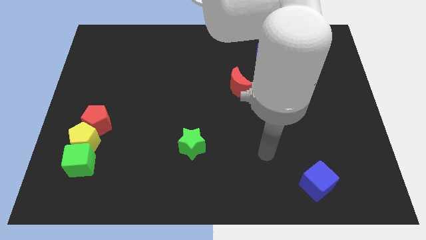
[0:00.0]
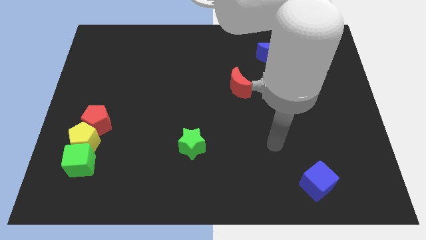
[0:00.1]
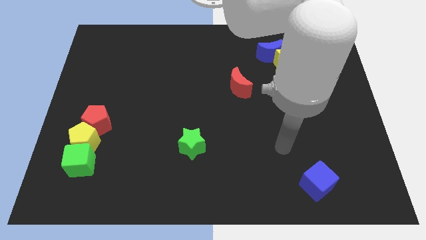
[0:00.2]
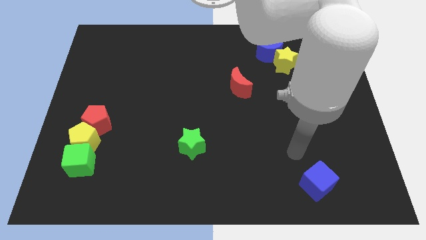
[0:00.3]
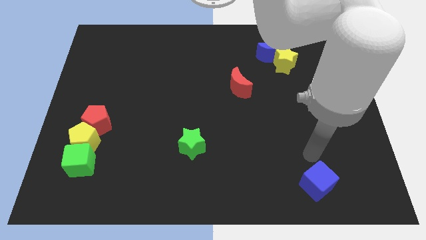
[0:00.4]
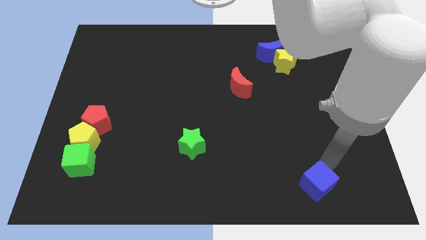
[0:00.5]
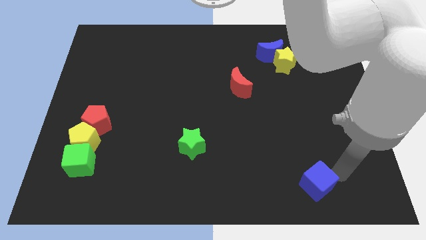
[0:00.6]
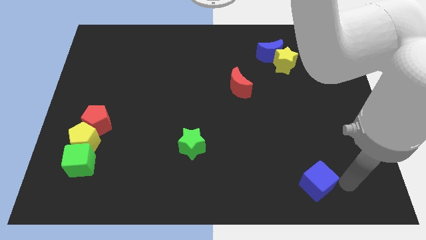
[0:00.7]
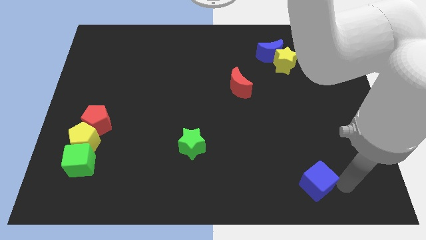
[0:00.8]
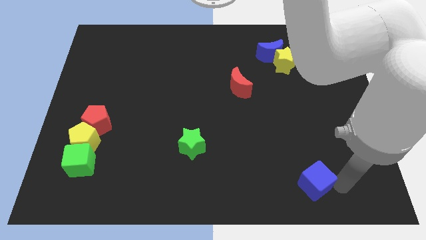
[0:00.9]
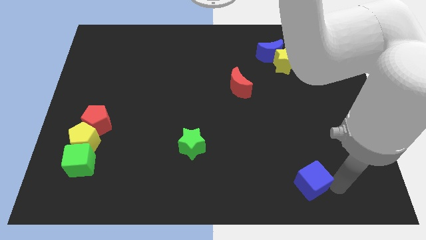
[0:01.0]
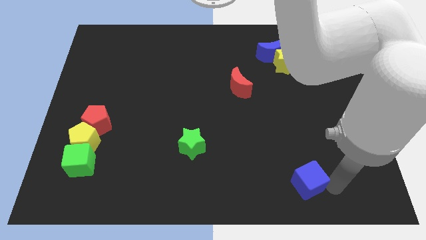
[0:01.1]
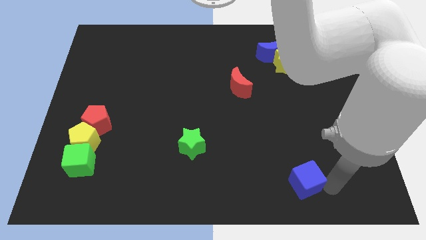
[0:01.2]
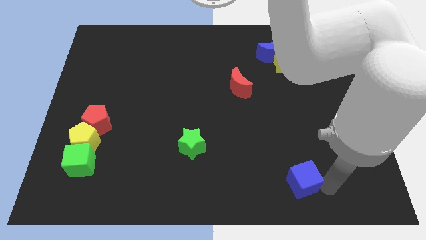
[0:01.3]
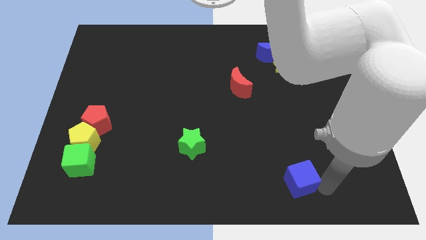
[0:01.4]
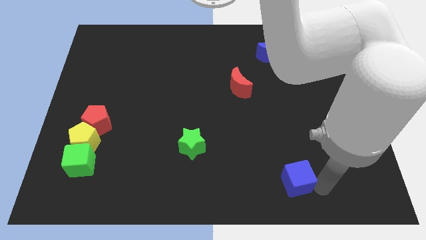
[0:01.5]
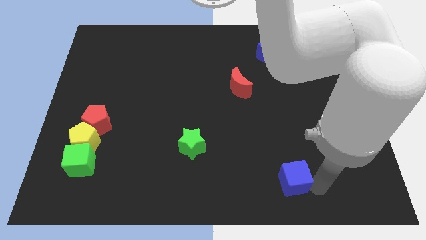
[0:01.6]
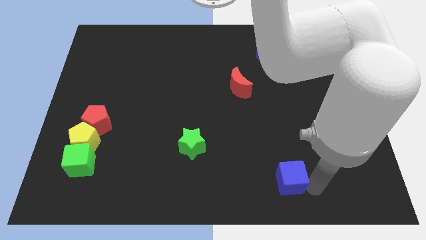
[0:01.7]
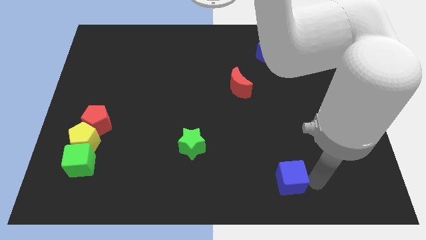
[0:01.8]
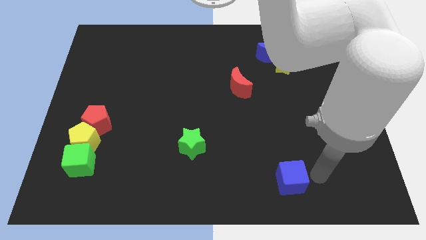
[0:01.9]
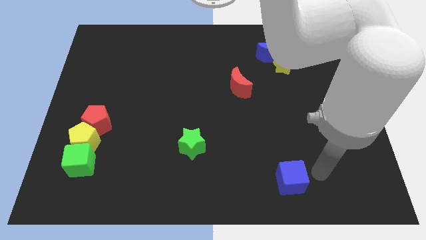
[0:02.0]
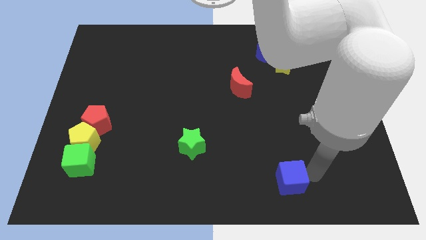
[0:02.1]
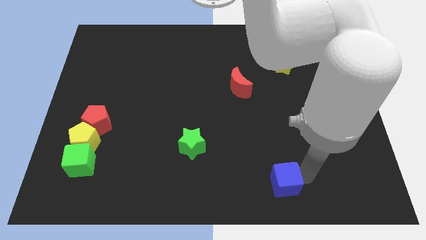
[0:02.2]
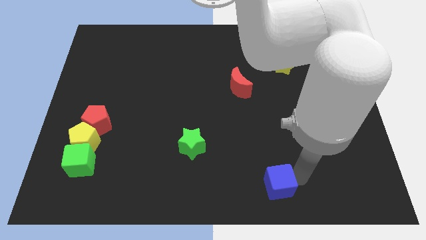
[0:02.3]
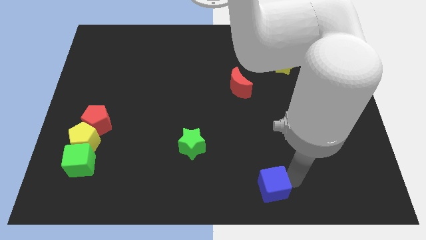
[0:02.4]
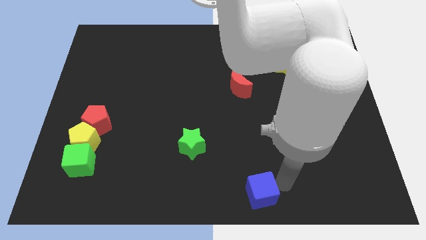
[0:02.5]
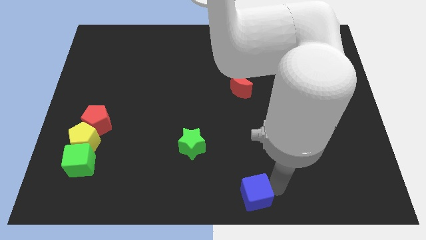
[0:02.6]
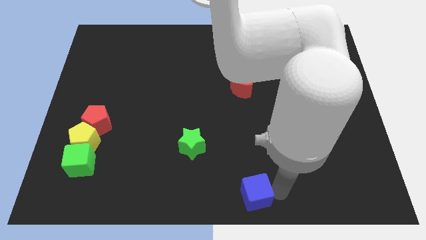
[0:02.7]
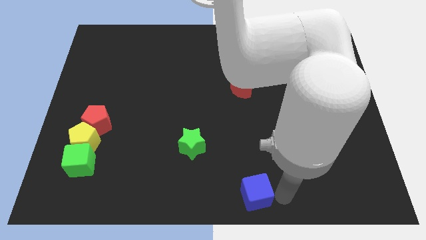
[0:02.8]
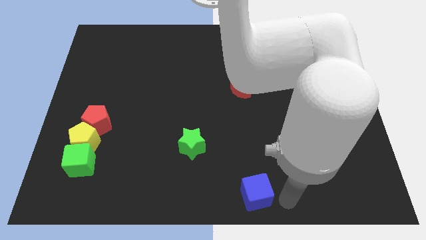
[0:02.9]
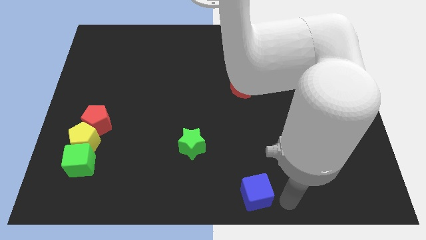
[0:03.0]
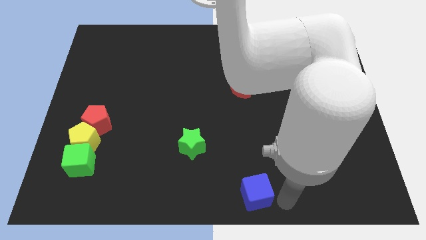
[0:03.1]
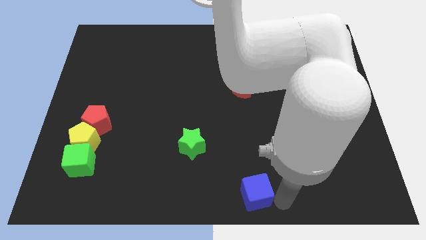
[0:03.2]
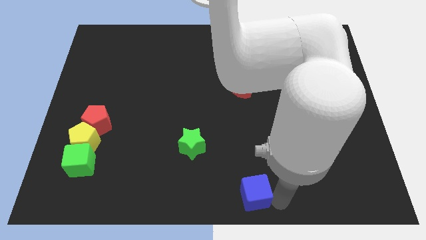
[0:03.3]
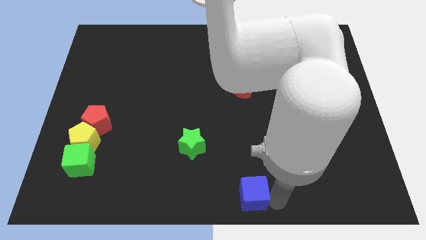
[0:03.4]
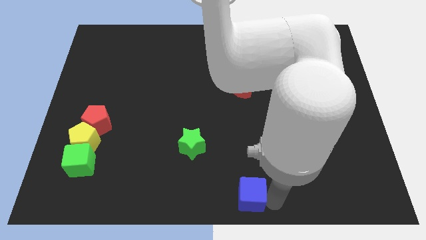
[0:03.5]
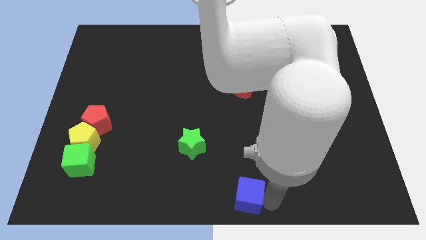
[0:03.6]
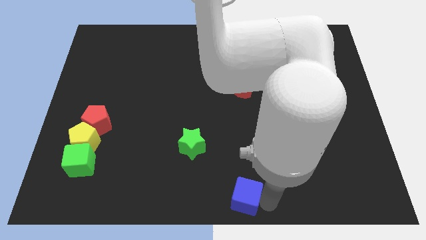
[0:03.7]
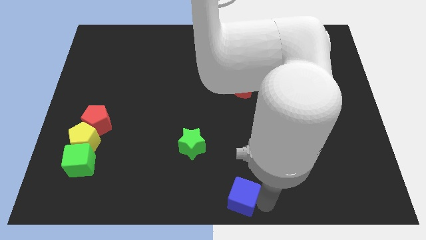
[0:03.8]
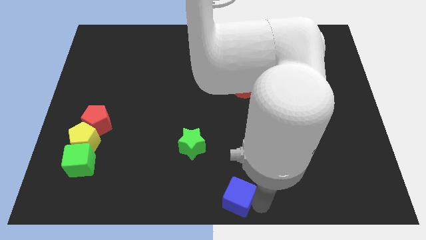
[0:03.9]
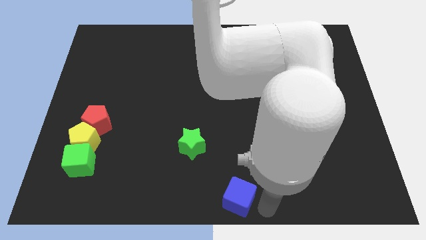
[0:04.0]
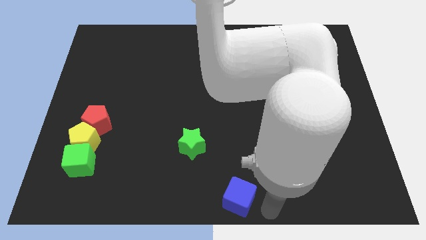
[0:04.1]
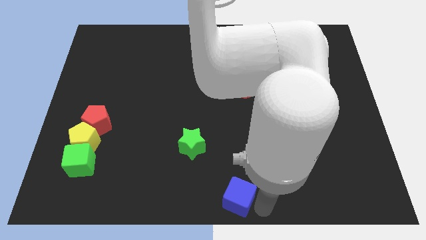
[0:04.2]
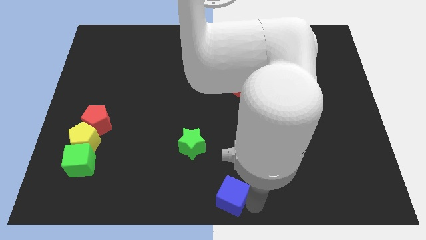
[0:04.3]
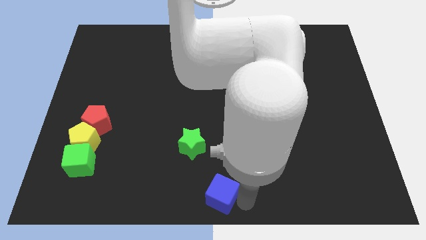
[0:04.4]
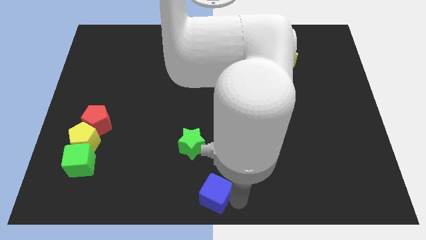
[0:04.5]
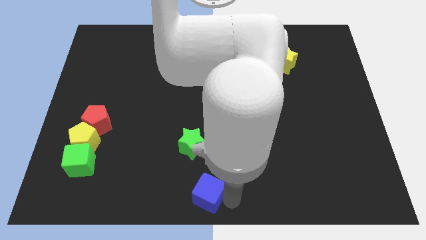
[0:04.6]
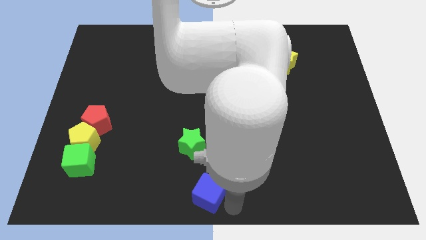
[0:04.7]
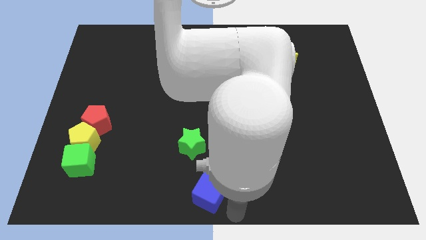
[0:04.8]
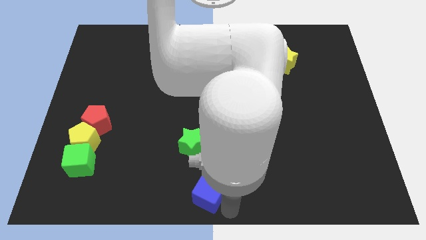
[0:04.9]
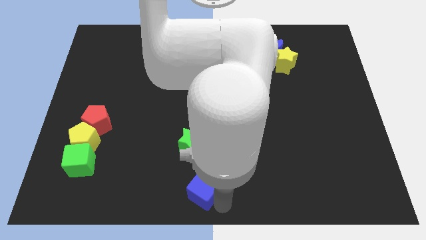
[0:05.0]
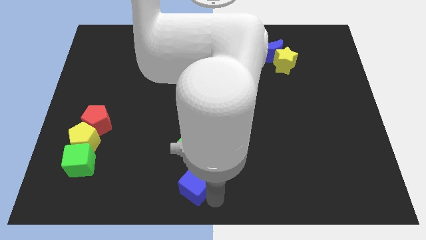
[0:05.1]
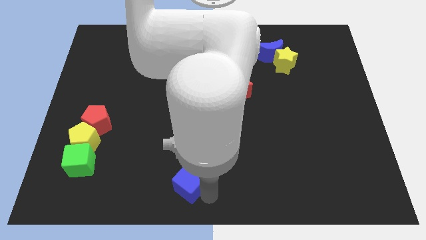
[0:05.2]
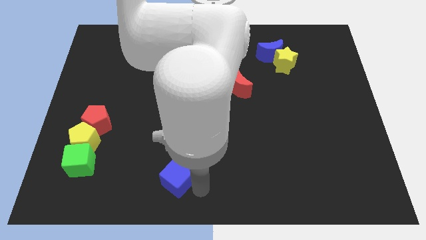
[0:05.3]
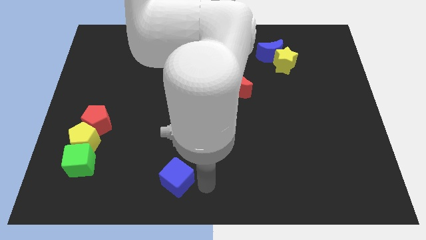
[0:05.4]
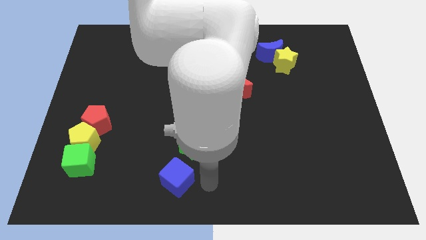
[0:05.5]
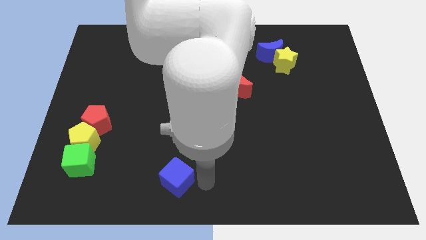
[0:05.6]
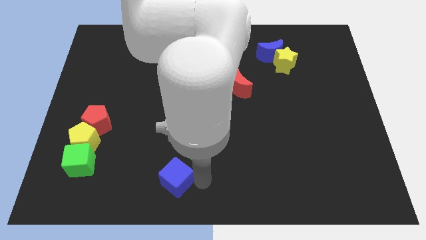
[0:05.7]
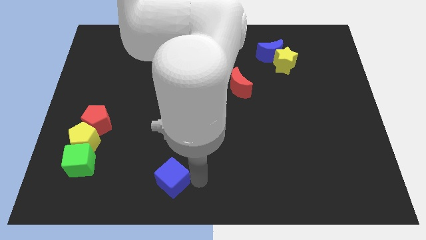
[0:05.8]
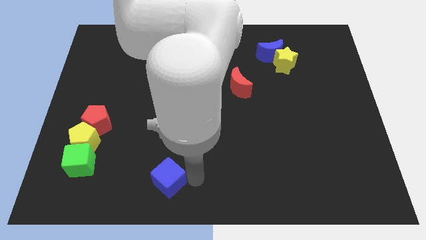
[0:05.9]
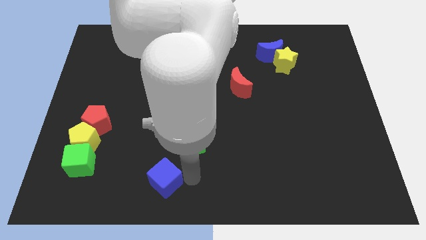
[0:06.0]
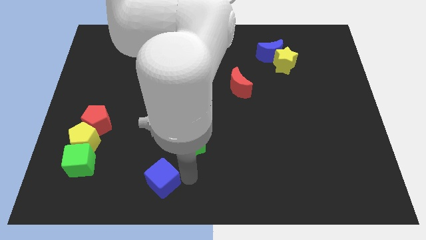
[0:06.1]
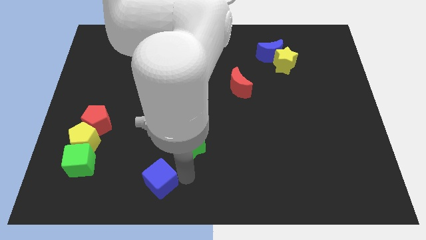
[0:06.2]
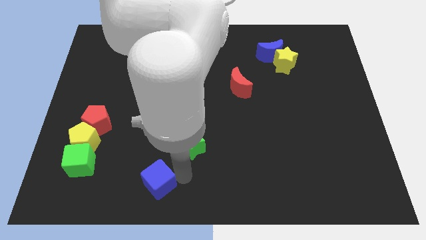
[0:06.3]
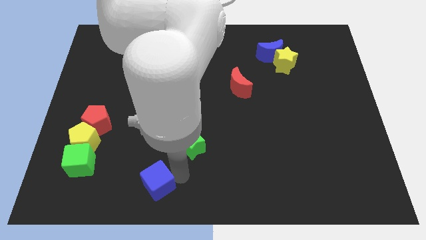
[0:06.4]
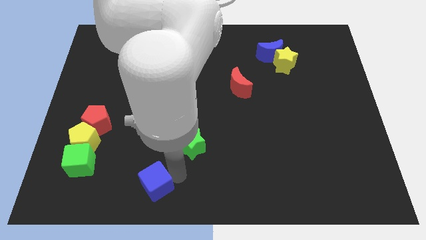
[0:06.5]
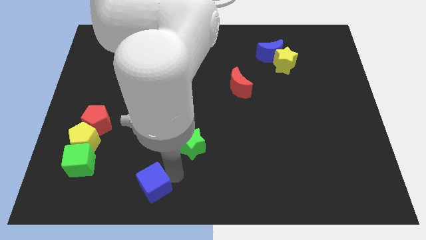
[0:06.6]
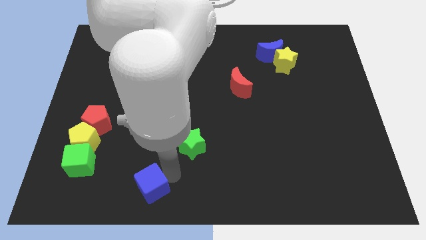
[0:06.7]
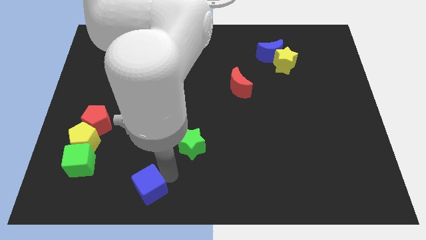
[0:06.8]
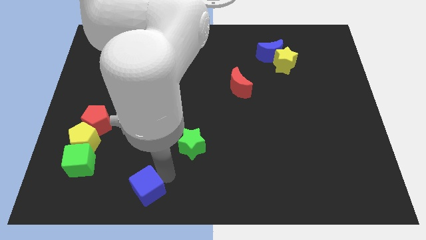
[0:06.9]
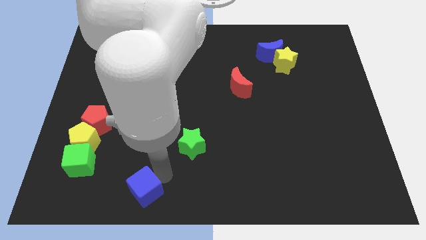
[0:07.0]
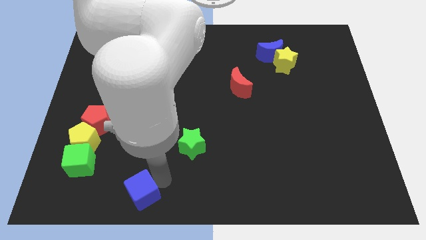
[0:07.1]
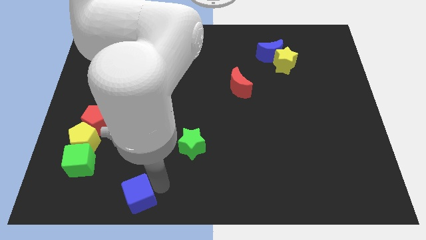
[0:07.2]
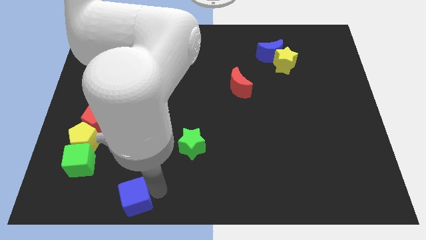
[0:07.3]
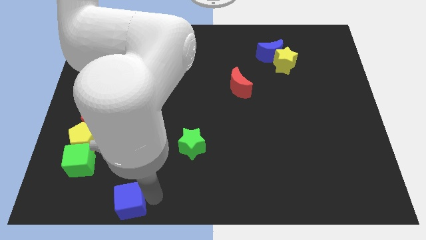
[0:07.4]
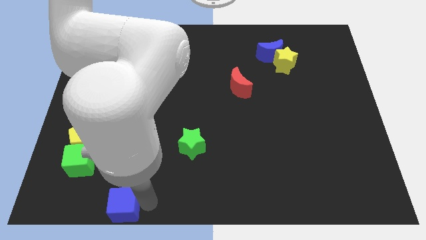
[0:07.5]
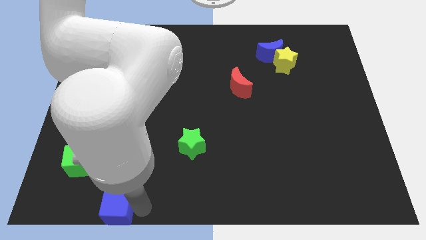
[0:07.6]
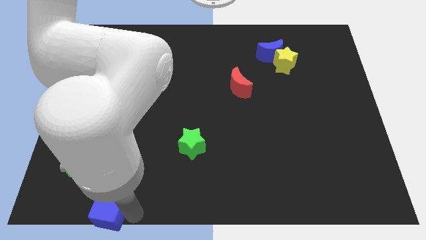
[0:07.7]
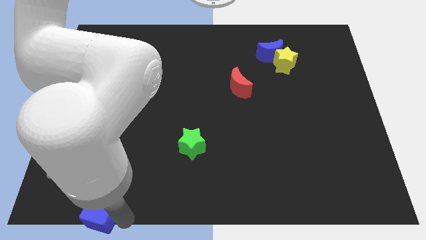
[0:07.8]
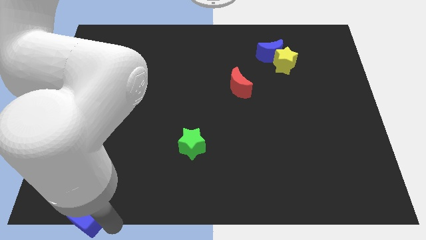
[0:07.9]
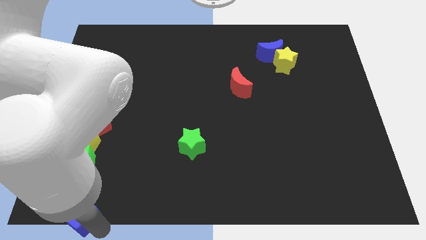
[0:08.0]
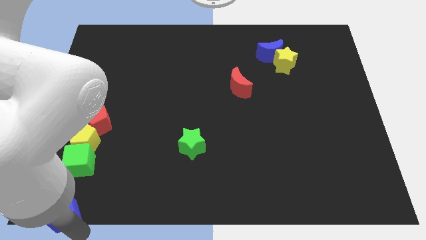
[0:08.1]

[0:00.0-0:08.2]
push the blue cube to the bottom side of the yellow pentagon
